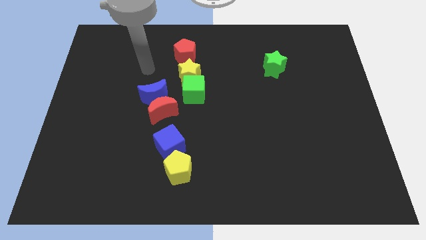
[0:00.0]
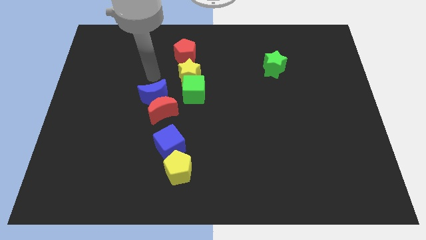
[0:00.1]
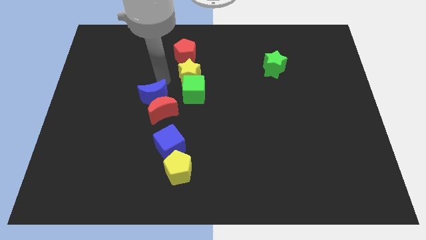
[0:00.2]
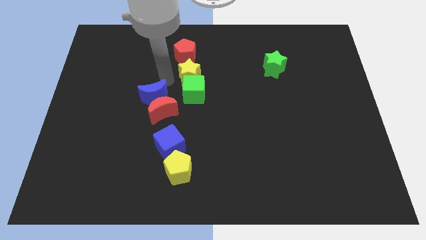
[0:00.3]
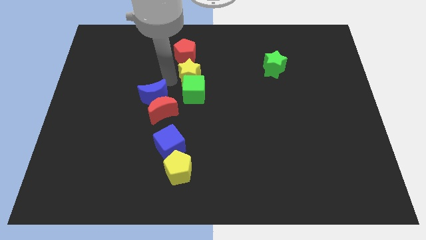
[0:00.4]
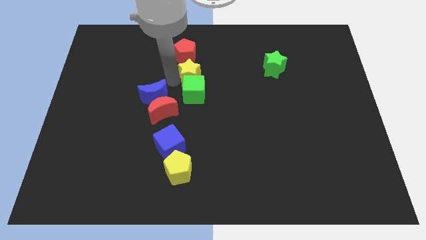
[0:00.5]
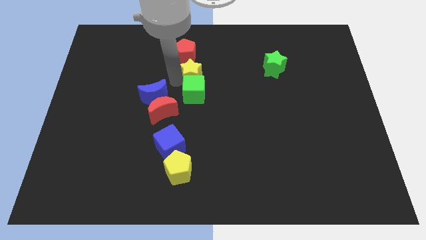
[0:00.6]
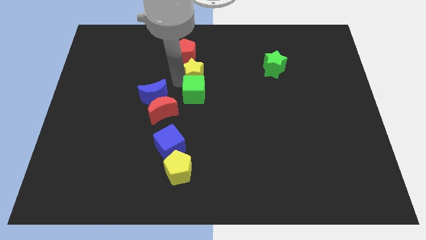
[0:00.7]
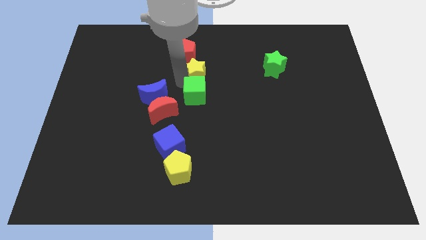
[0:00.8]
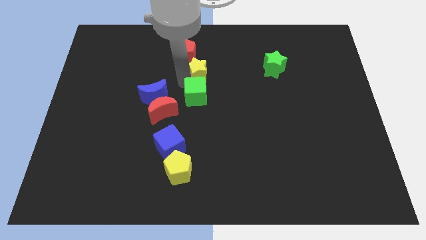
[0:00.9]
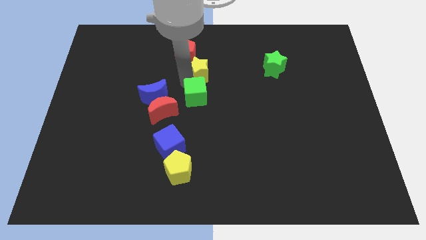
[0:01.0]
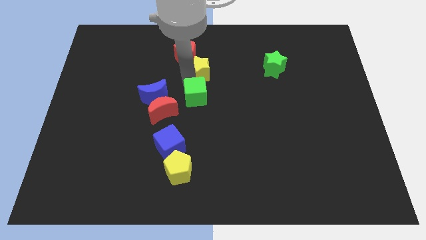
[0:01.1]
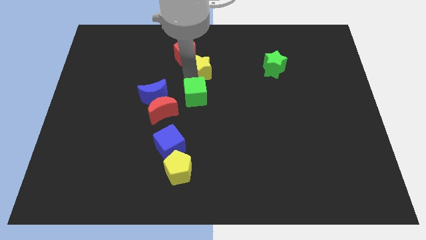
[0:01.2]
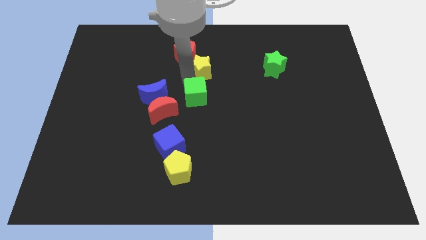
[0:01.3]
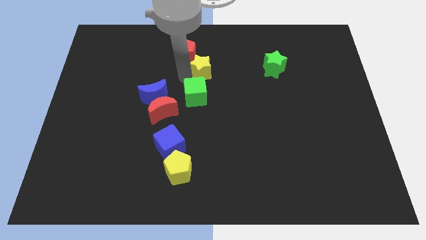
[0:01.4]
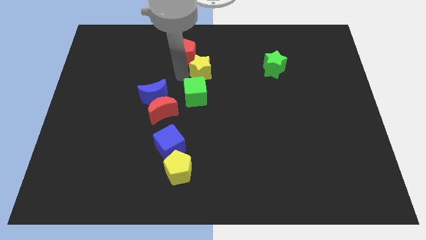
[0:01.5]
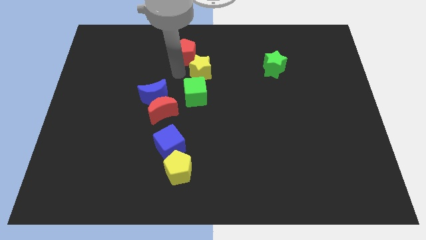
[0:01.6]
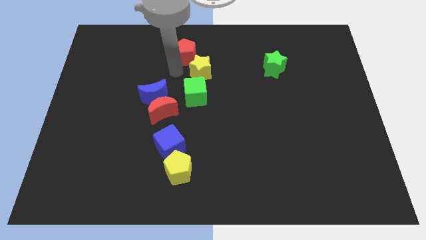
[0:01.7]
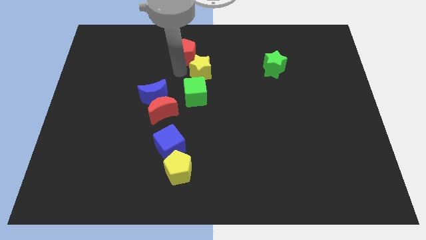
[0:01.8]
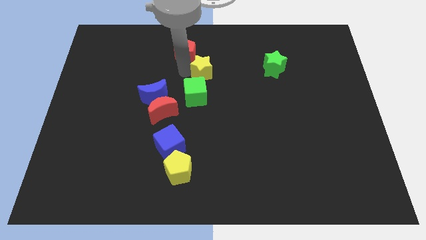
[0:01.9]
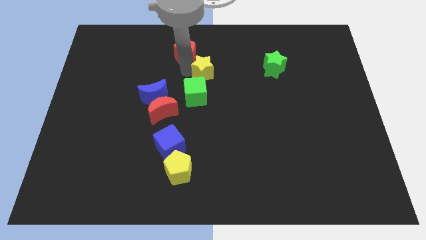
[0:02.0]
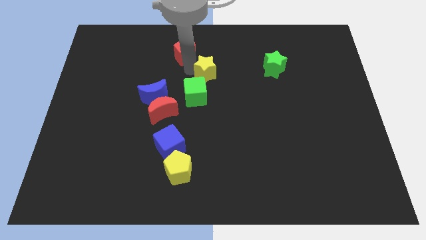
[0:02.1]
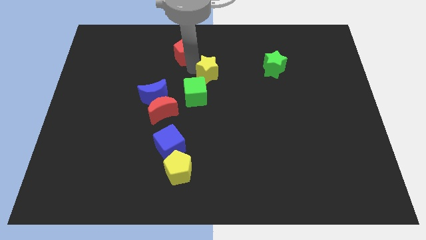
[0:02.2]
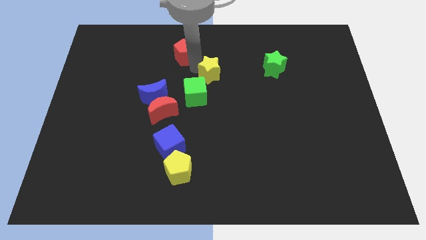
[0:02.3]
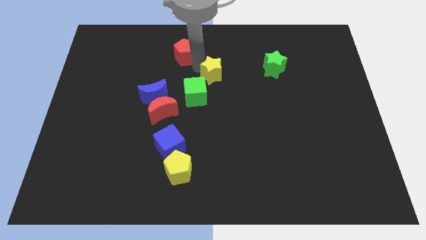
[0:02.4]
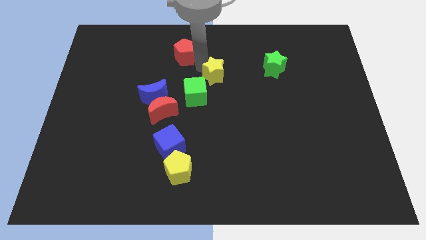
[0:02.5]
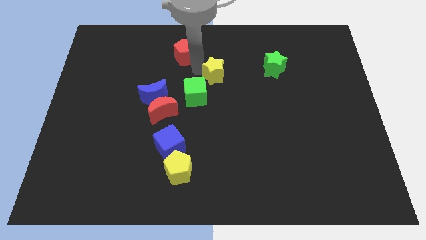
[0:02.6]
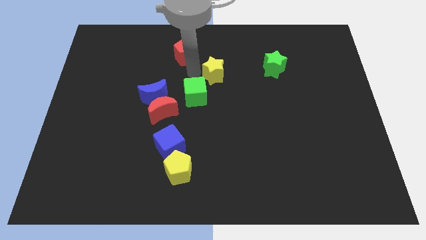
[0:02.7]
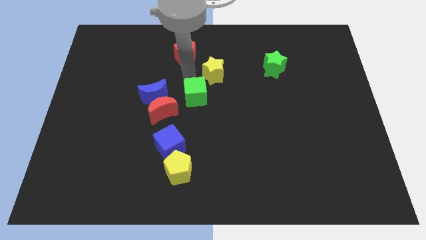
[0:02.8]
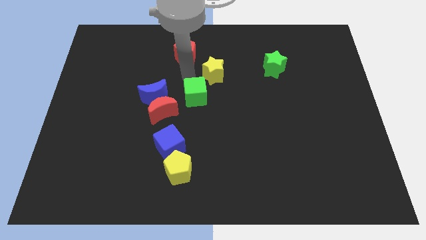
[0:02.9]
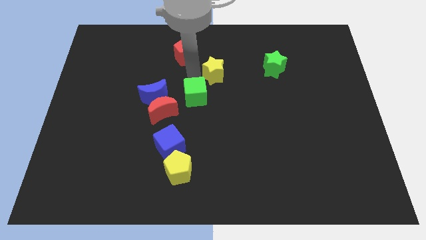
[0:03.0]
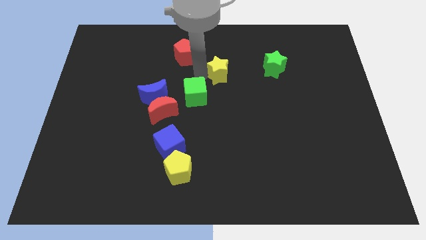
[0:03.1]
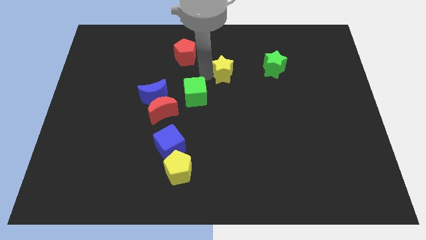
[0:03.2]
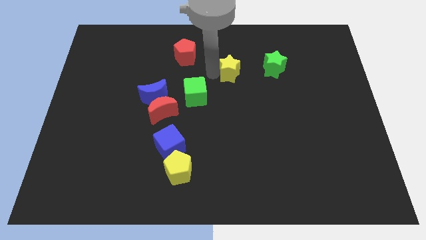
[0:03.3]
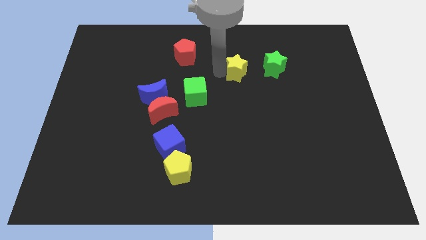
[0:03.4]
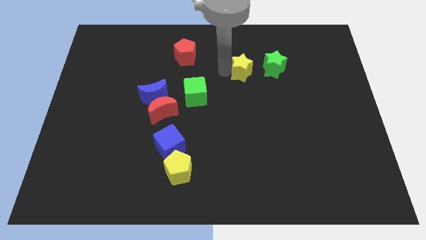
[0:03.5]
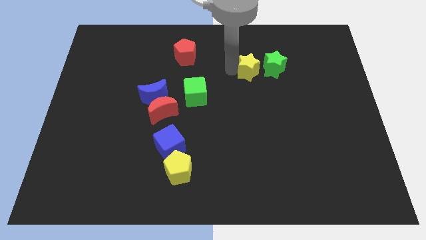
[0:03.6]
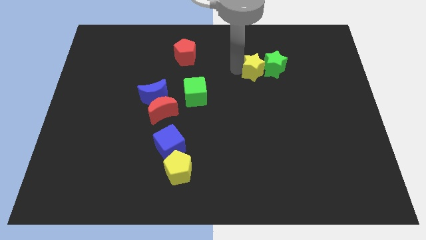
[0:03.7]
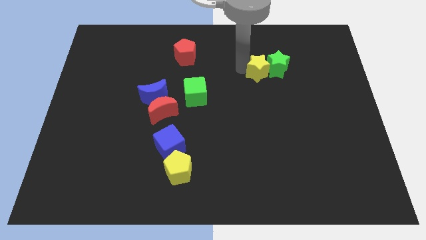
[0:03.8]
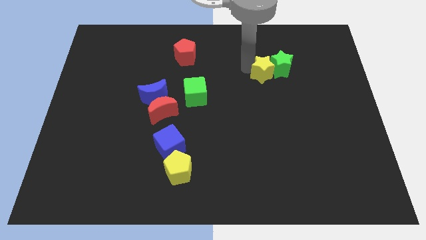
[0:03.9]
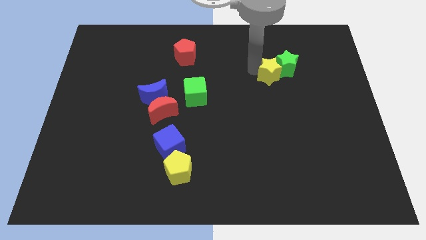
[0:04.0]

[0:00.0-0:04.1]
push the yellow star to the right

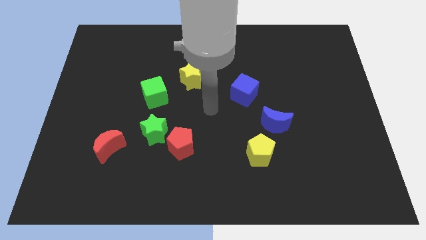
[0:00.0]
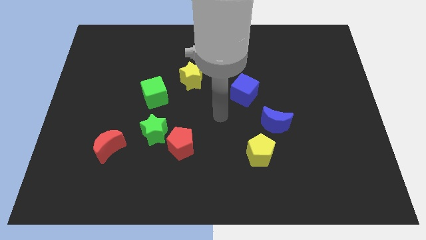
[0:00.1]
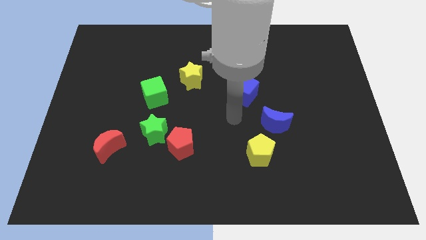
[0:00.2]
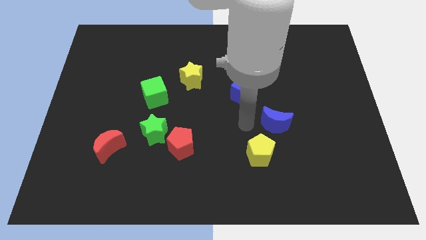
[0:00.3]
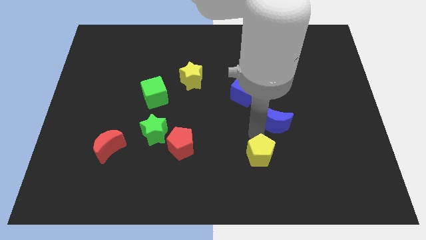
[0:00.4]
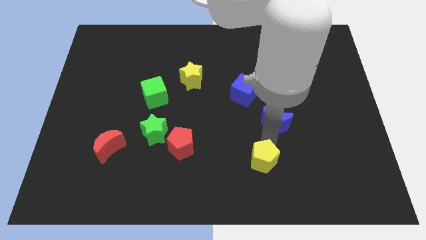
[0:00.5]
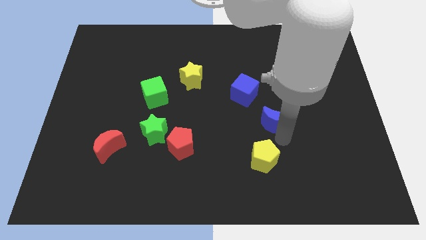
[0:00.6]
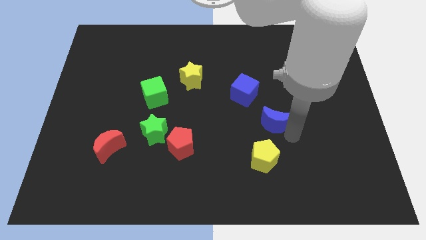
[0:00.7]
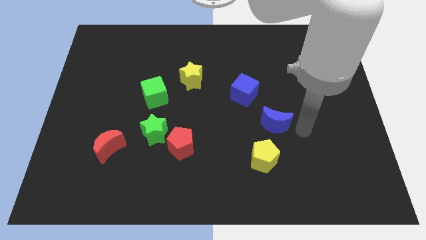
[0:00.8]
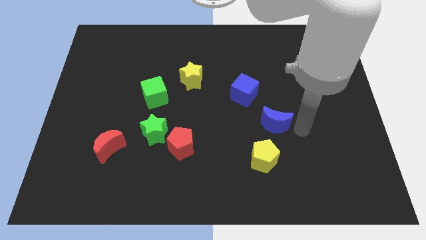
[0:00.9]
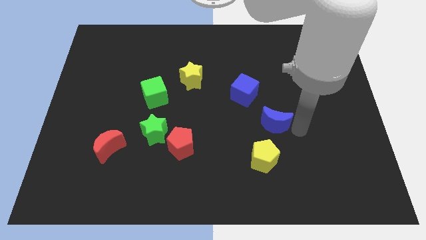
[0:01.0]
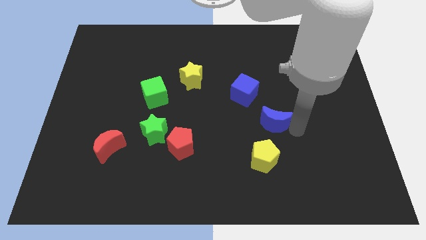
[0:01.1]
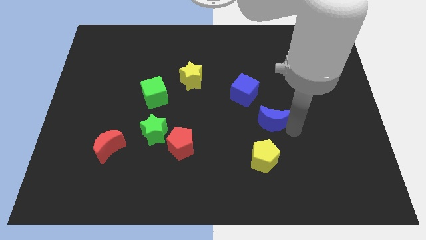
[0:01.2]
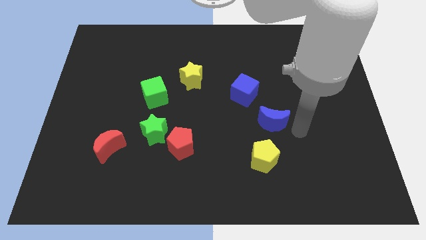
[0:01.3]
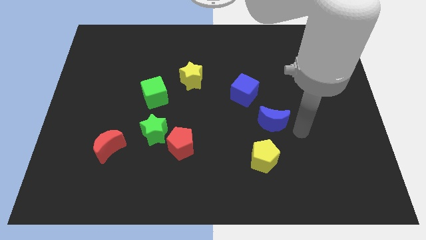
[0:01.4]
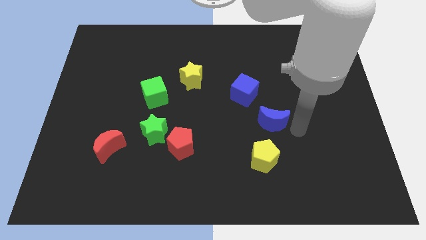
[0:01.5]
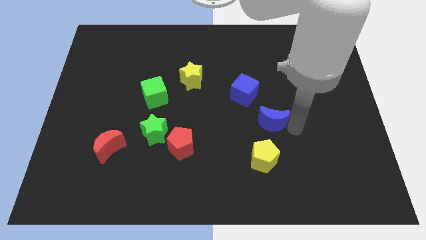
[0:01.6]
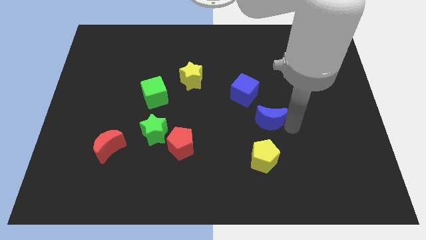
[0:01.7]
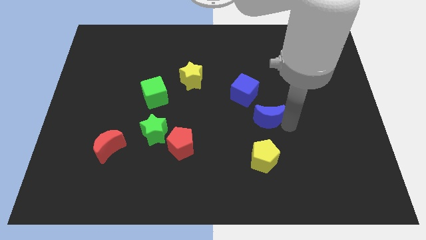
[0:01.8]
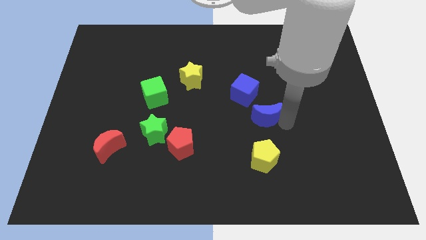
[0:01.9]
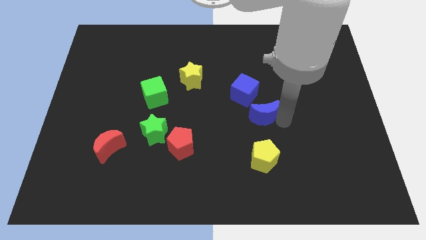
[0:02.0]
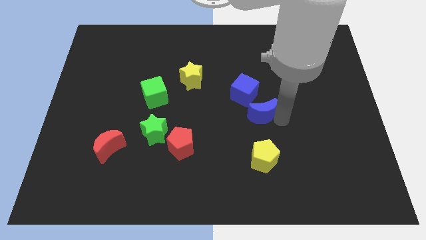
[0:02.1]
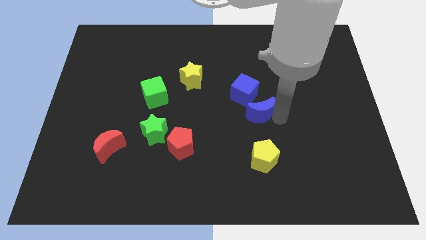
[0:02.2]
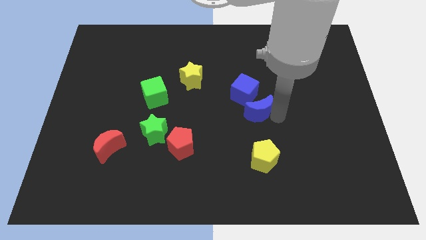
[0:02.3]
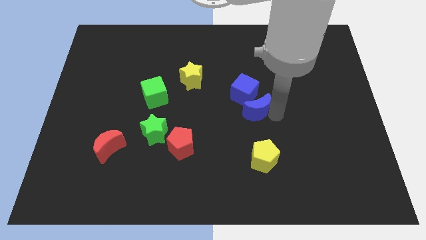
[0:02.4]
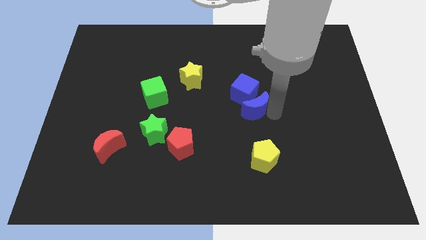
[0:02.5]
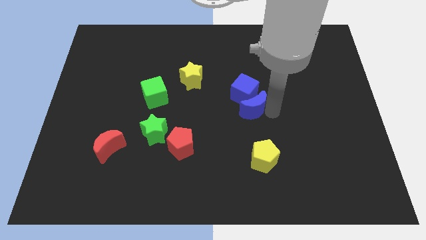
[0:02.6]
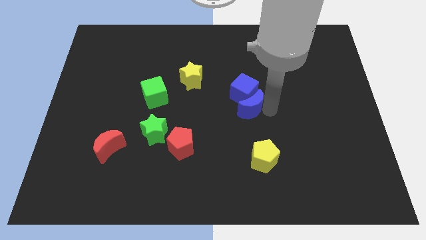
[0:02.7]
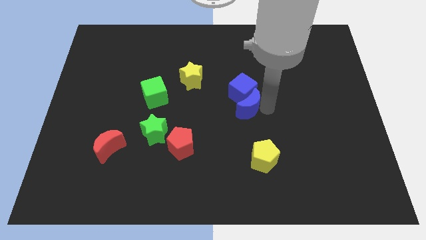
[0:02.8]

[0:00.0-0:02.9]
slightly push the blue moon up and then left

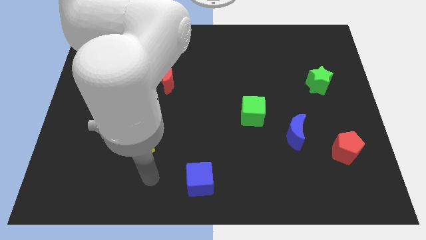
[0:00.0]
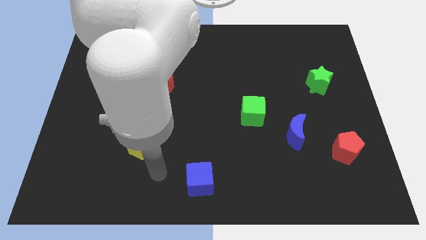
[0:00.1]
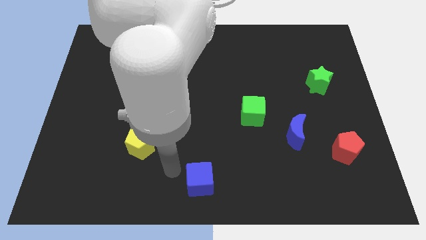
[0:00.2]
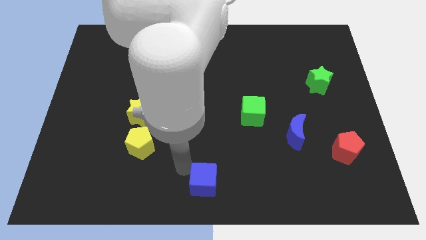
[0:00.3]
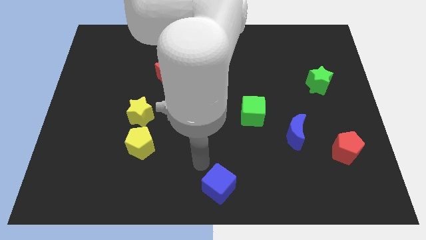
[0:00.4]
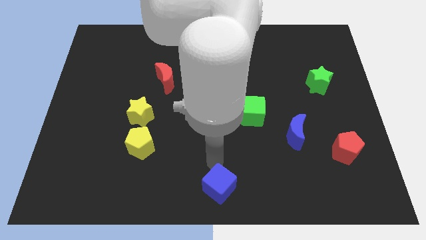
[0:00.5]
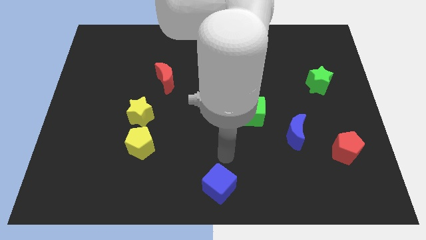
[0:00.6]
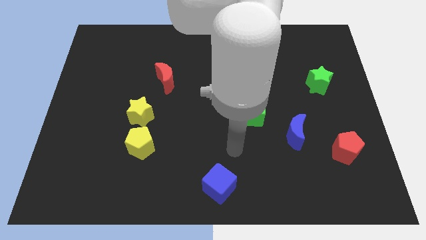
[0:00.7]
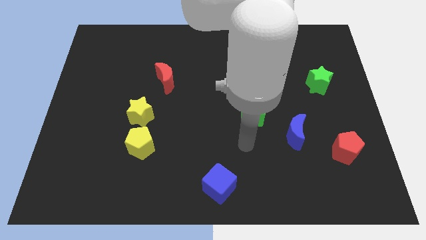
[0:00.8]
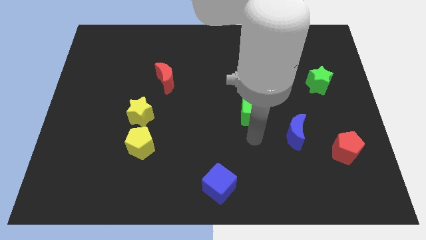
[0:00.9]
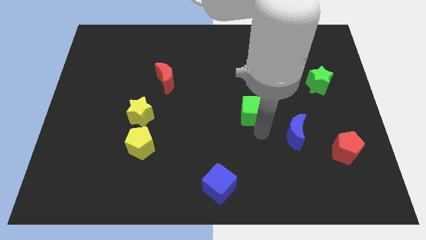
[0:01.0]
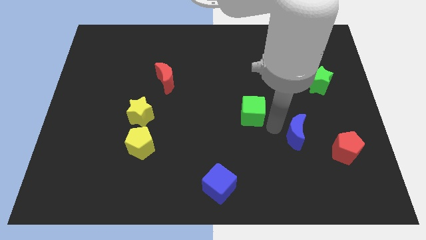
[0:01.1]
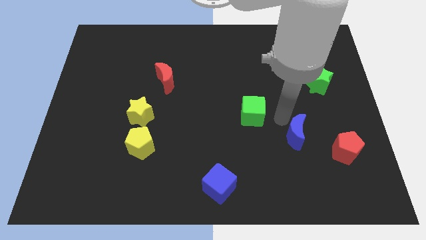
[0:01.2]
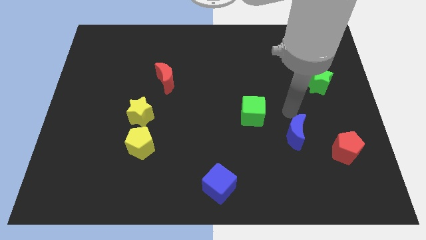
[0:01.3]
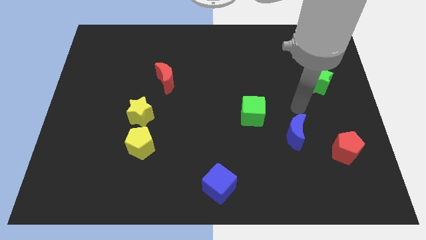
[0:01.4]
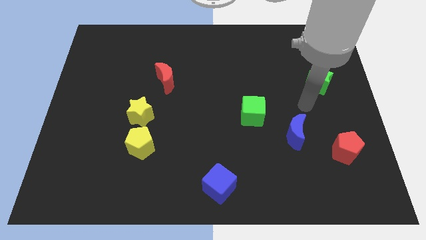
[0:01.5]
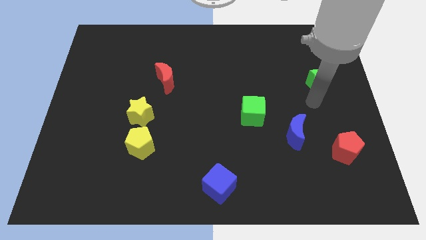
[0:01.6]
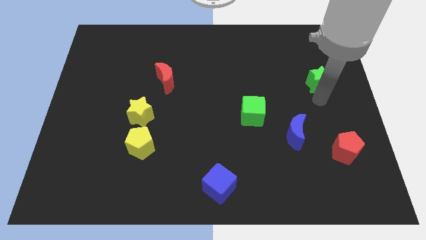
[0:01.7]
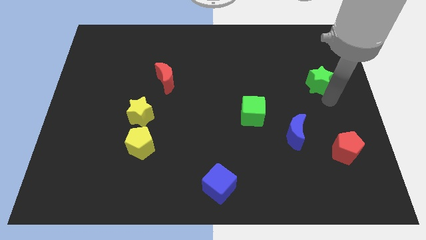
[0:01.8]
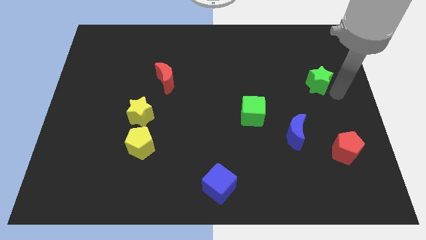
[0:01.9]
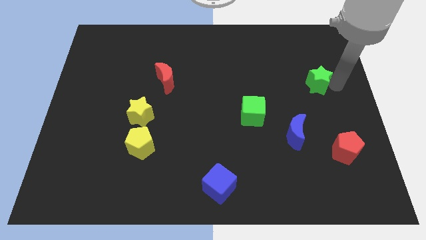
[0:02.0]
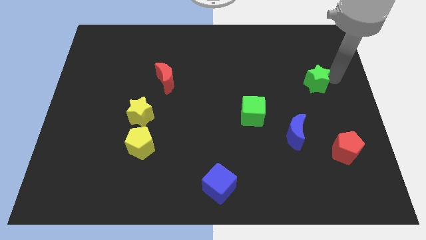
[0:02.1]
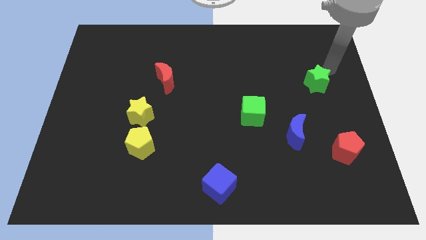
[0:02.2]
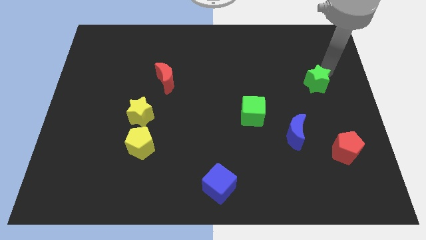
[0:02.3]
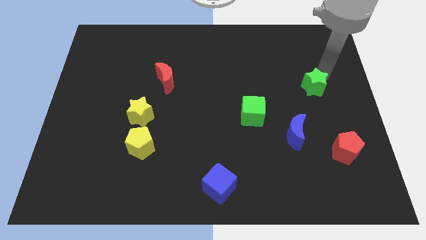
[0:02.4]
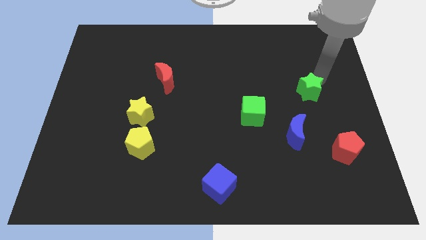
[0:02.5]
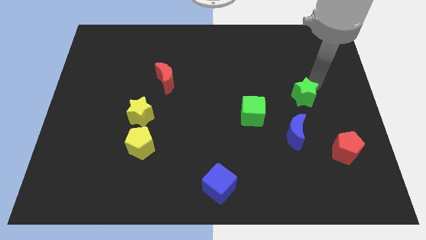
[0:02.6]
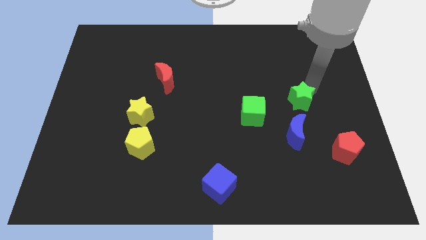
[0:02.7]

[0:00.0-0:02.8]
slightly slide the green star down and to the left
